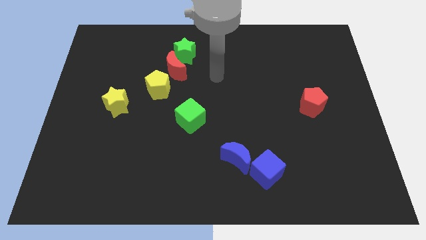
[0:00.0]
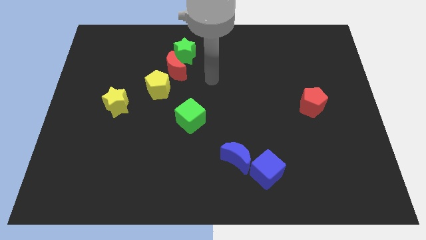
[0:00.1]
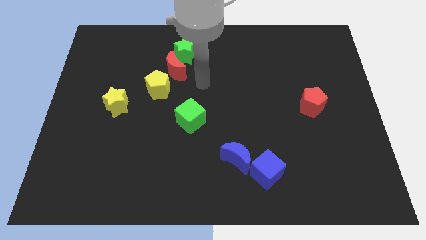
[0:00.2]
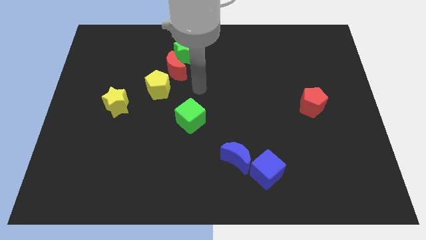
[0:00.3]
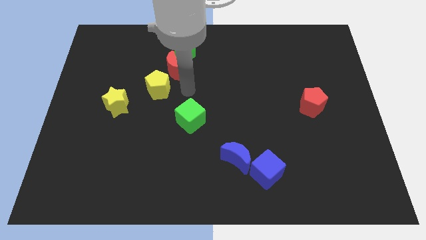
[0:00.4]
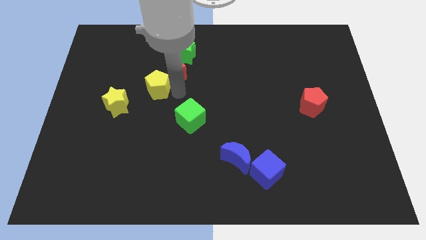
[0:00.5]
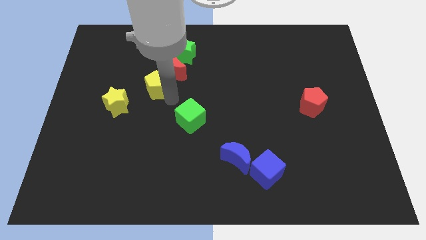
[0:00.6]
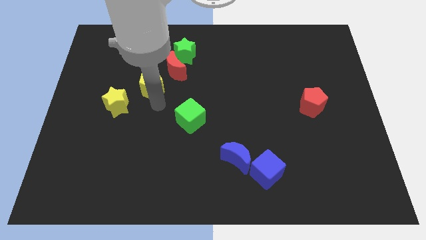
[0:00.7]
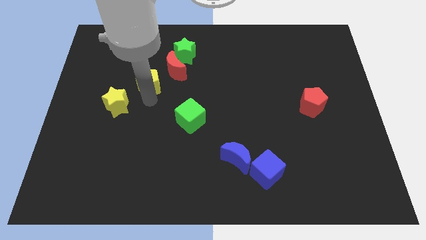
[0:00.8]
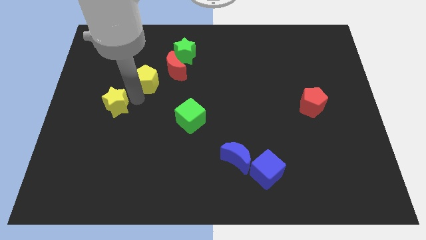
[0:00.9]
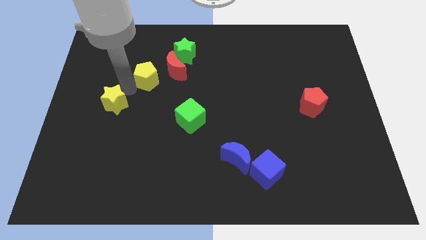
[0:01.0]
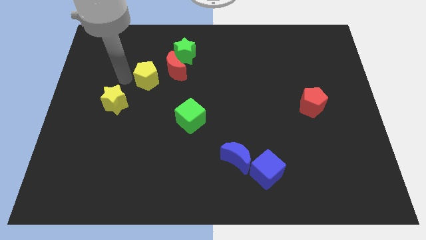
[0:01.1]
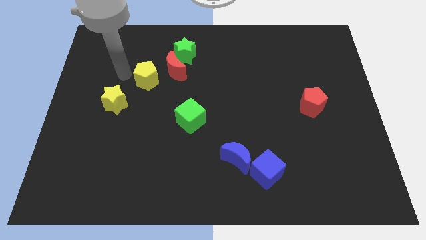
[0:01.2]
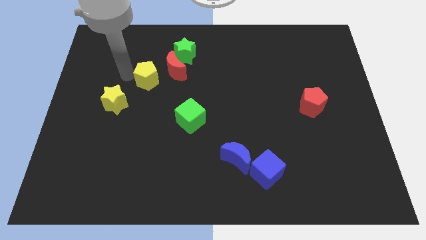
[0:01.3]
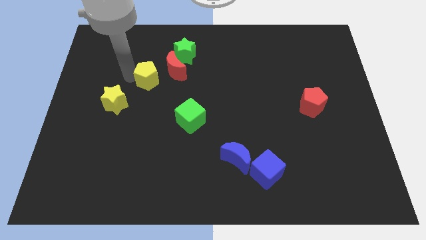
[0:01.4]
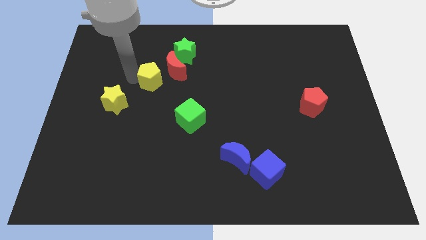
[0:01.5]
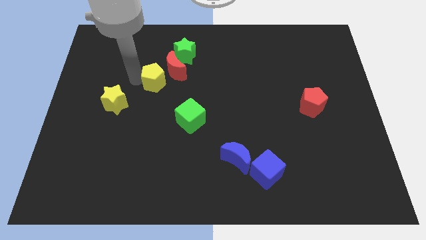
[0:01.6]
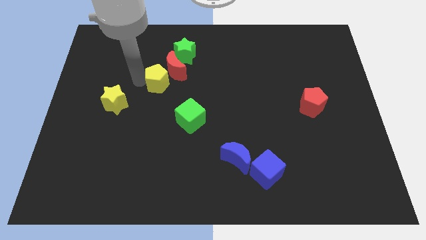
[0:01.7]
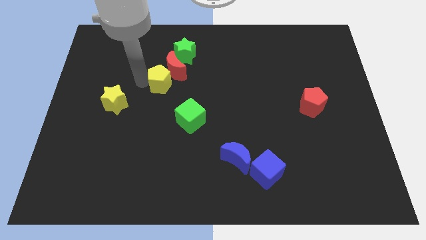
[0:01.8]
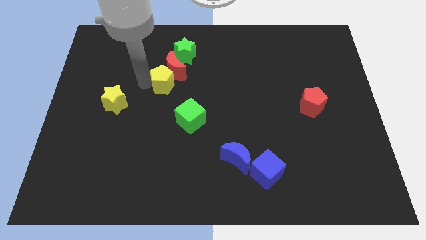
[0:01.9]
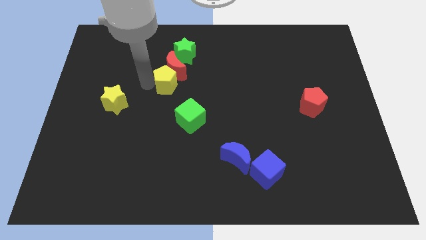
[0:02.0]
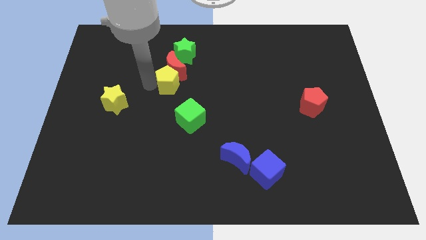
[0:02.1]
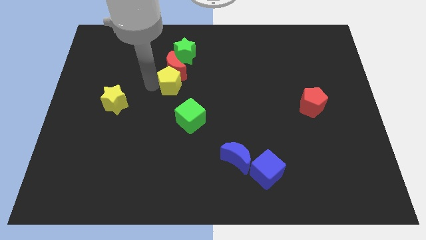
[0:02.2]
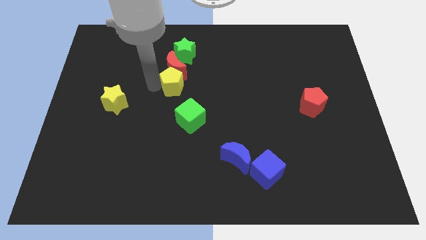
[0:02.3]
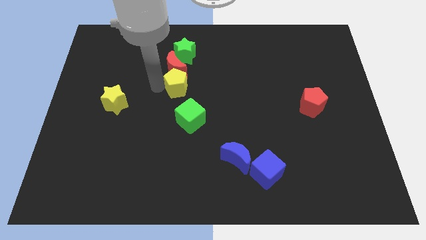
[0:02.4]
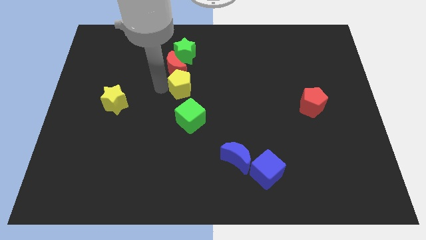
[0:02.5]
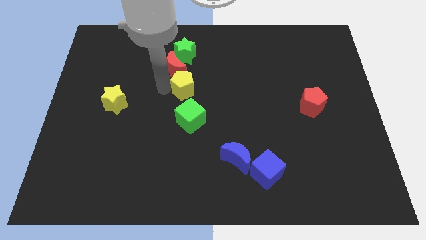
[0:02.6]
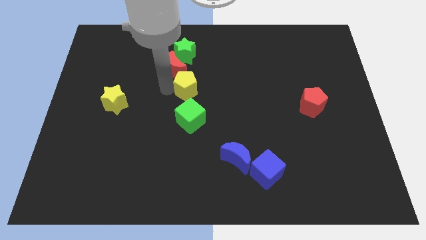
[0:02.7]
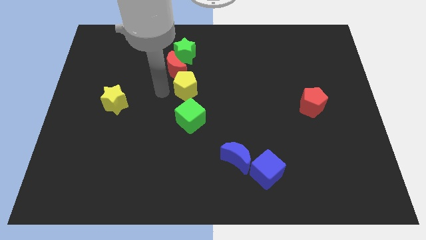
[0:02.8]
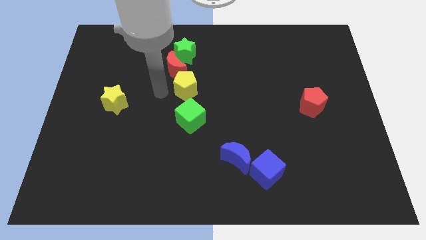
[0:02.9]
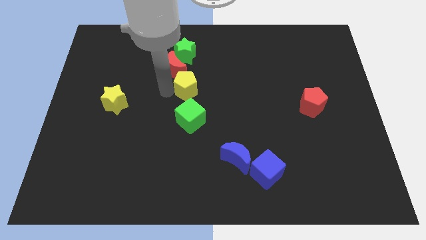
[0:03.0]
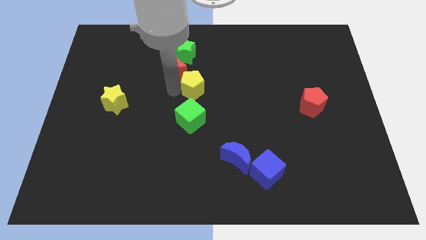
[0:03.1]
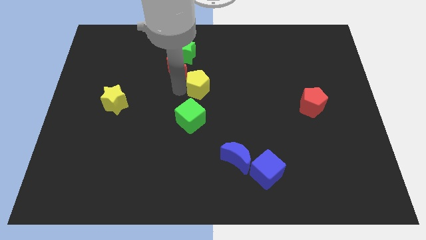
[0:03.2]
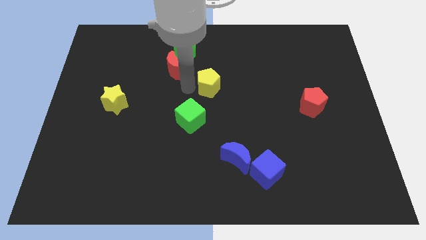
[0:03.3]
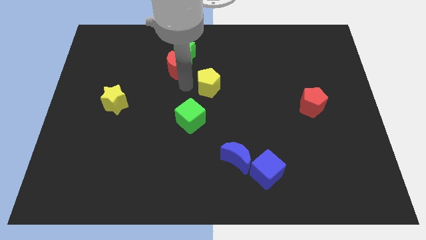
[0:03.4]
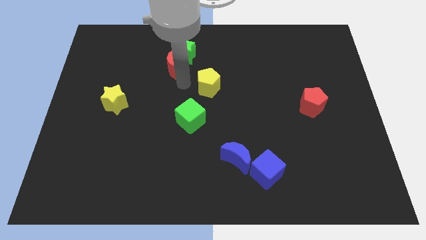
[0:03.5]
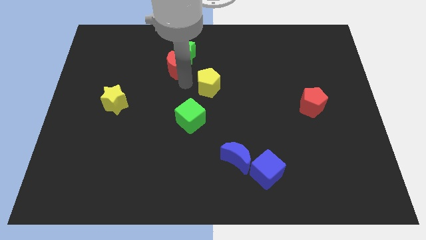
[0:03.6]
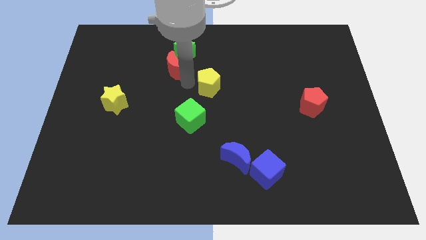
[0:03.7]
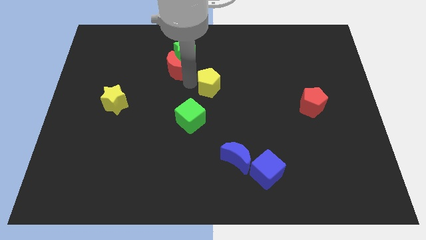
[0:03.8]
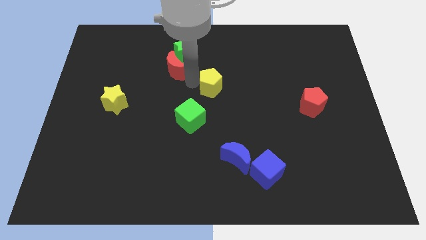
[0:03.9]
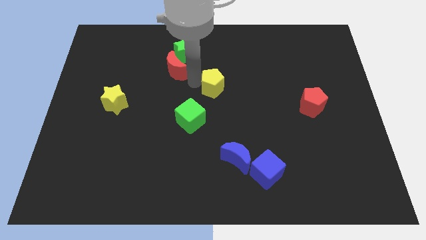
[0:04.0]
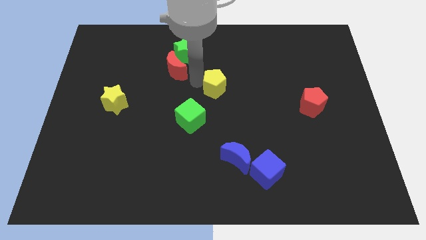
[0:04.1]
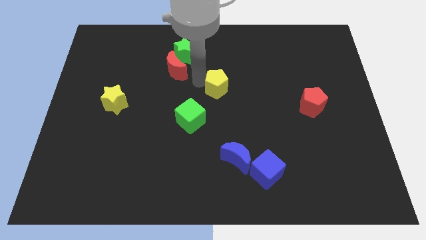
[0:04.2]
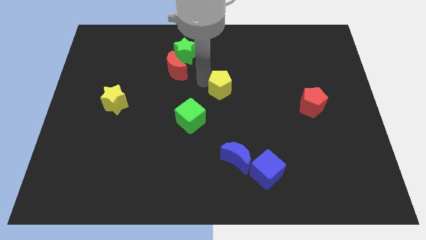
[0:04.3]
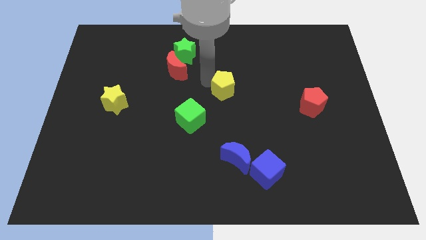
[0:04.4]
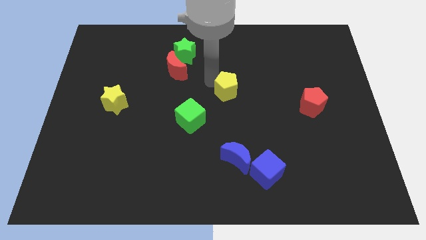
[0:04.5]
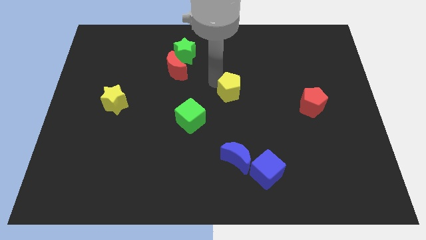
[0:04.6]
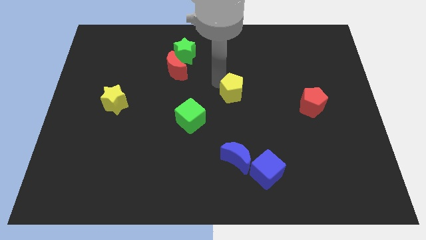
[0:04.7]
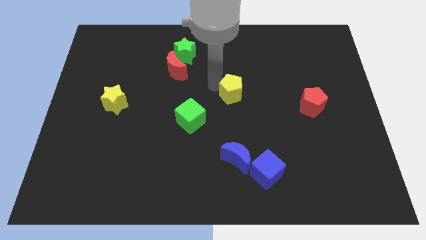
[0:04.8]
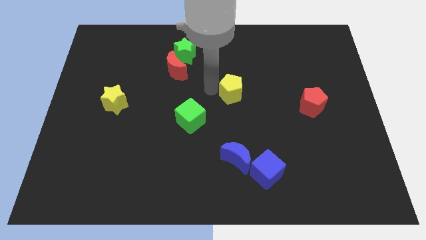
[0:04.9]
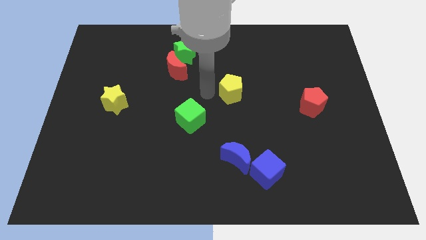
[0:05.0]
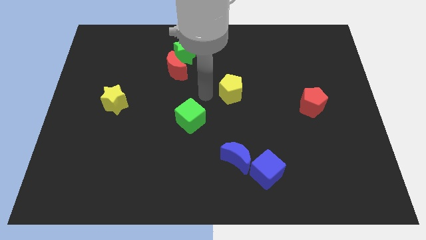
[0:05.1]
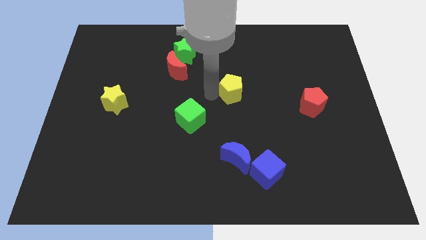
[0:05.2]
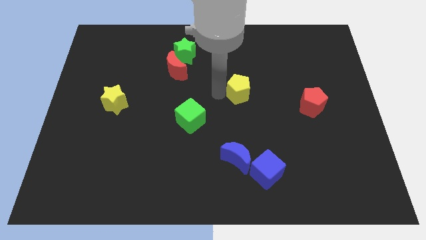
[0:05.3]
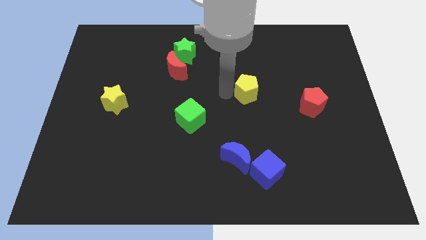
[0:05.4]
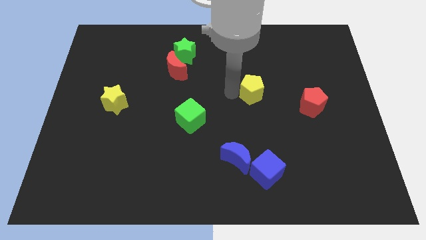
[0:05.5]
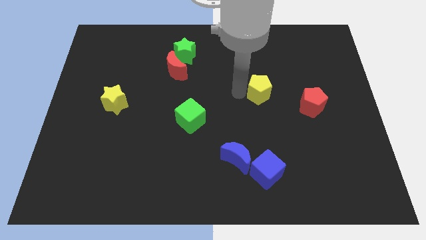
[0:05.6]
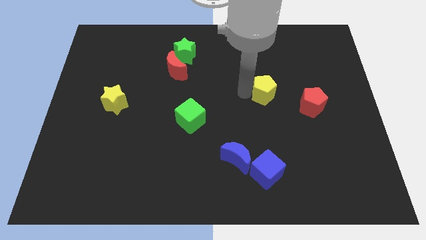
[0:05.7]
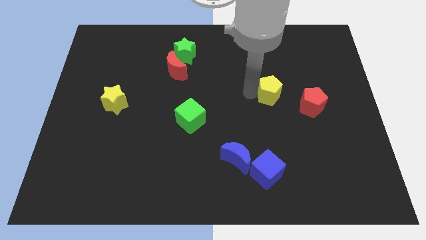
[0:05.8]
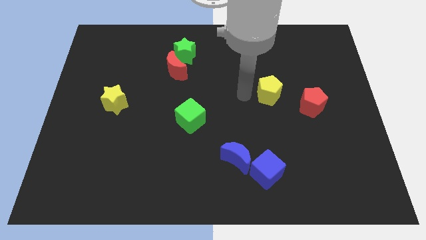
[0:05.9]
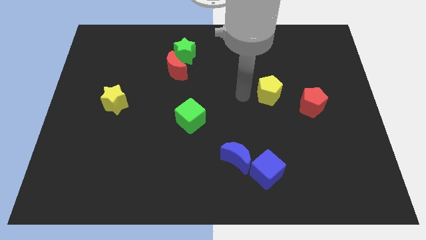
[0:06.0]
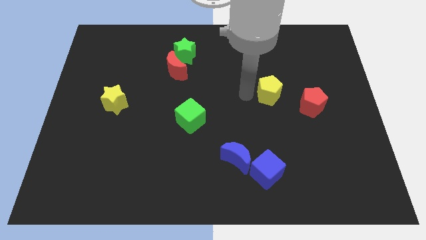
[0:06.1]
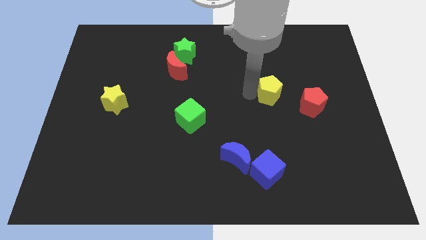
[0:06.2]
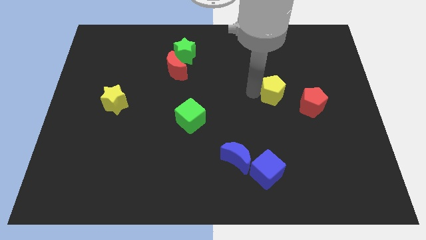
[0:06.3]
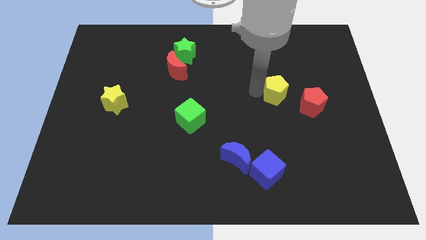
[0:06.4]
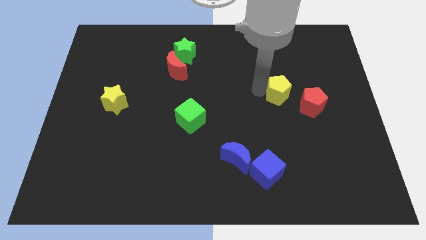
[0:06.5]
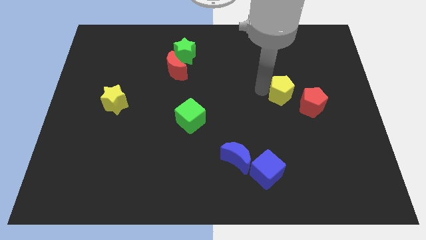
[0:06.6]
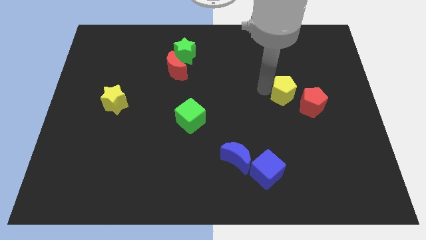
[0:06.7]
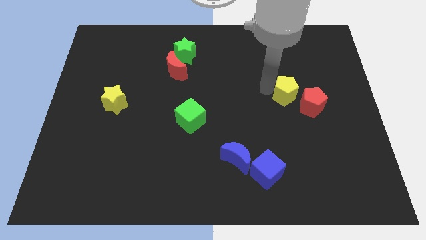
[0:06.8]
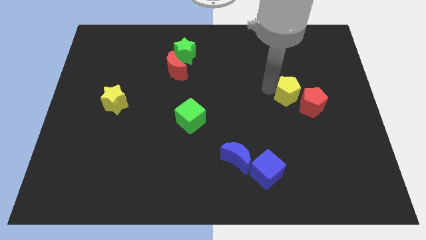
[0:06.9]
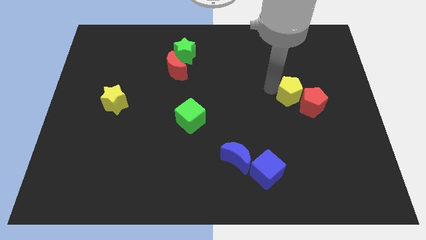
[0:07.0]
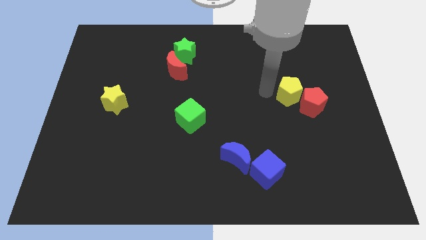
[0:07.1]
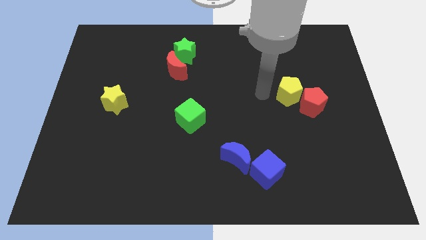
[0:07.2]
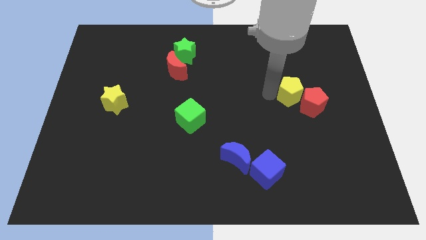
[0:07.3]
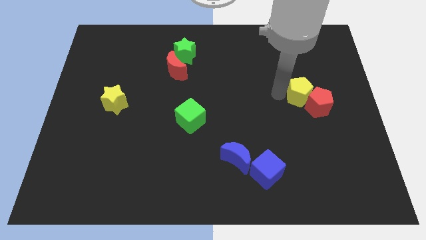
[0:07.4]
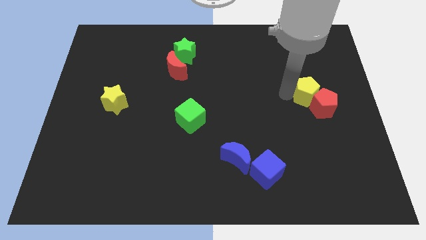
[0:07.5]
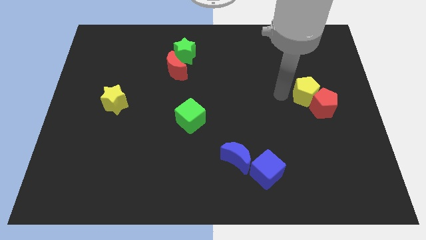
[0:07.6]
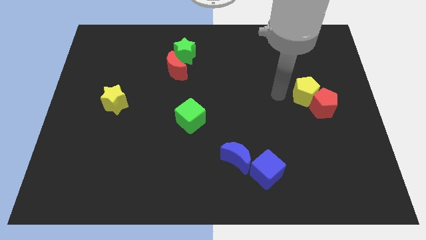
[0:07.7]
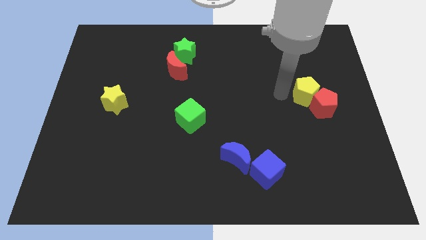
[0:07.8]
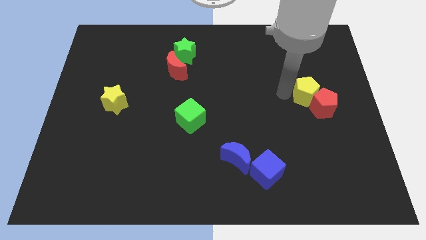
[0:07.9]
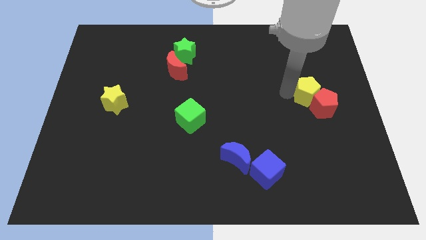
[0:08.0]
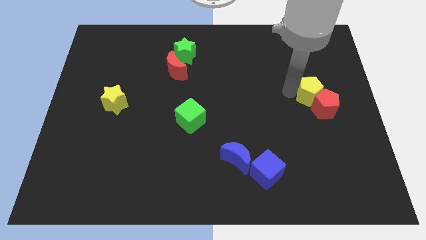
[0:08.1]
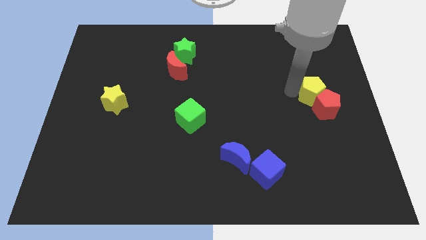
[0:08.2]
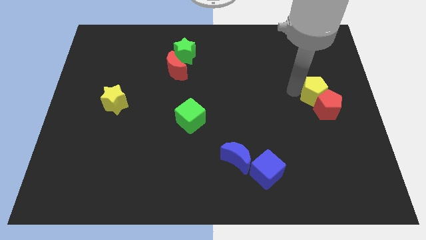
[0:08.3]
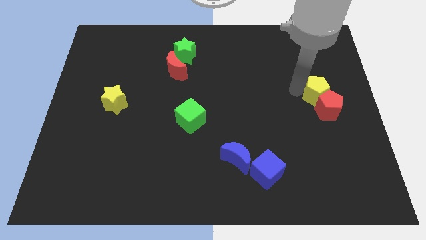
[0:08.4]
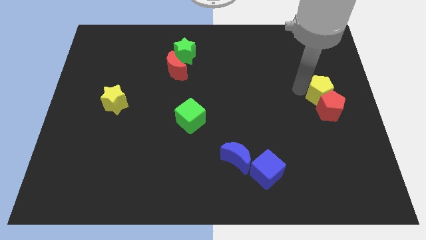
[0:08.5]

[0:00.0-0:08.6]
move the yellow pentagon to the right side of the board
